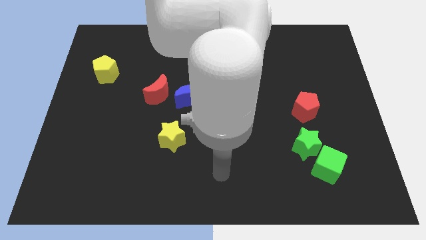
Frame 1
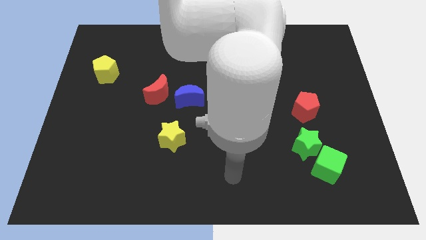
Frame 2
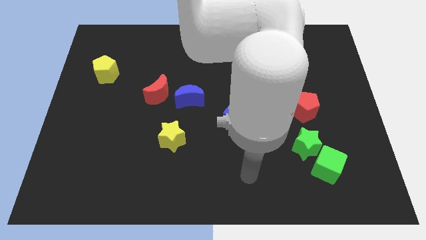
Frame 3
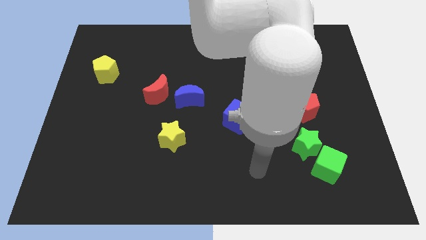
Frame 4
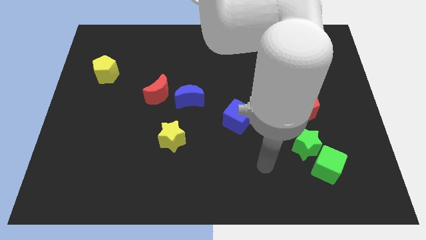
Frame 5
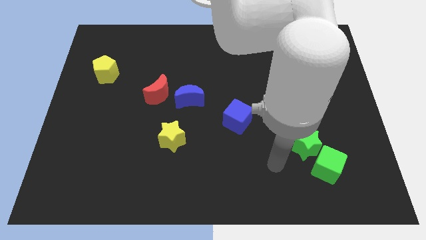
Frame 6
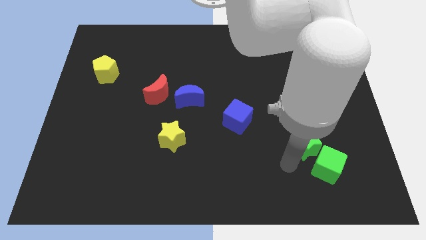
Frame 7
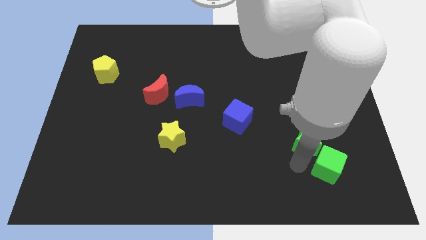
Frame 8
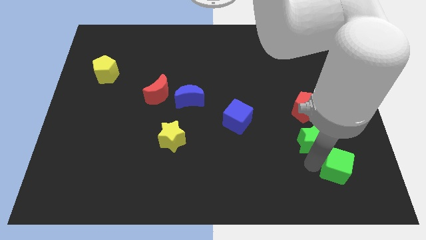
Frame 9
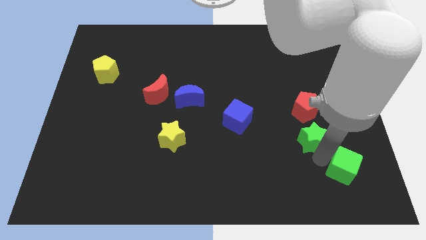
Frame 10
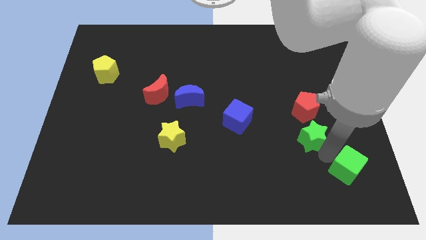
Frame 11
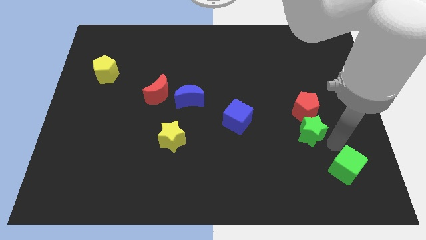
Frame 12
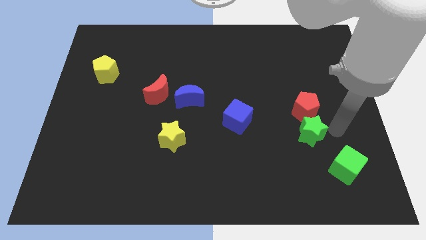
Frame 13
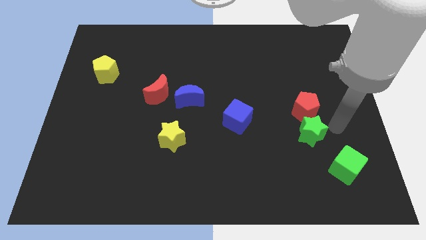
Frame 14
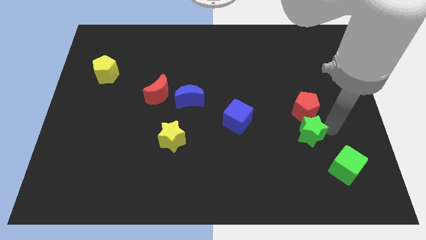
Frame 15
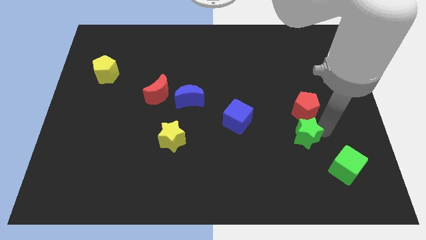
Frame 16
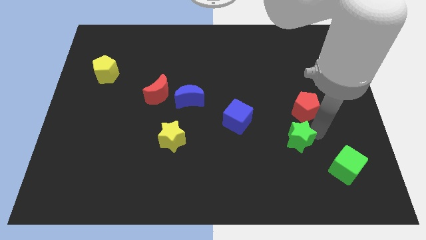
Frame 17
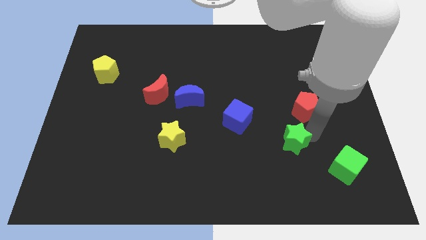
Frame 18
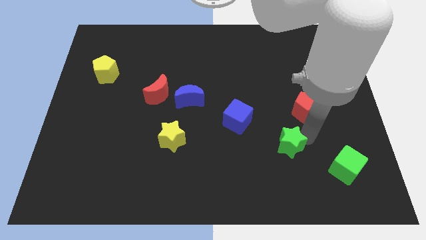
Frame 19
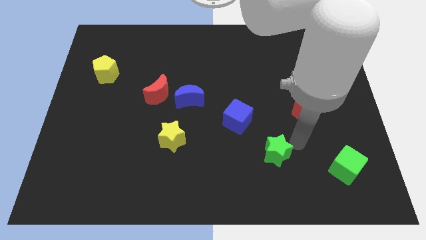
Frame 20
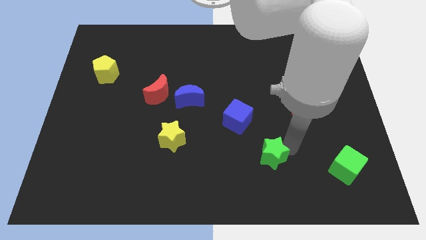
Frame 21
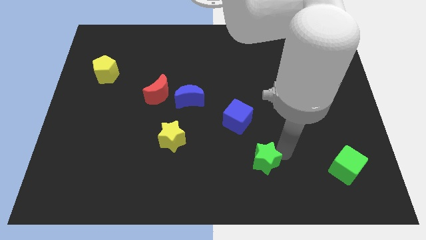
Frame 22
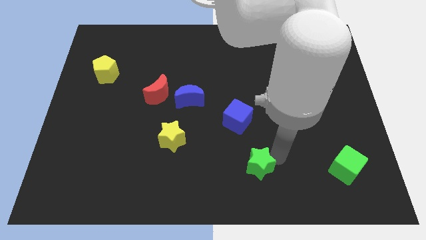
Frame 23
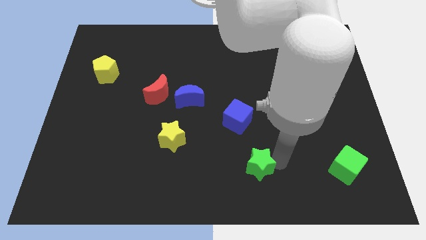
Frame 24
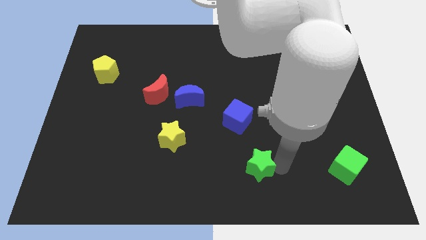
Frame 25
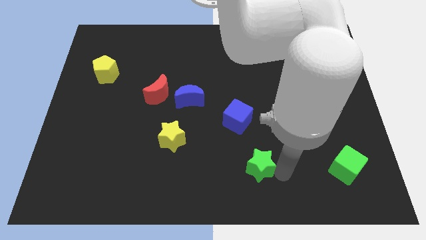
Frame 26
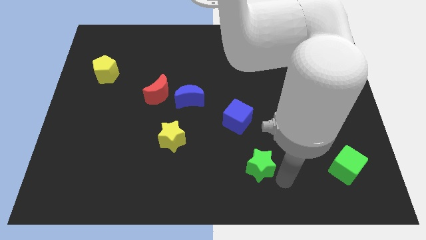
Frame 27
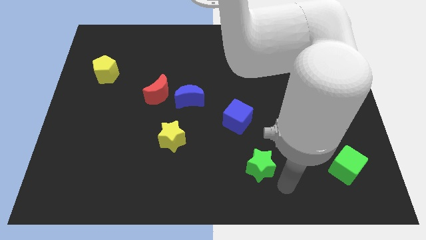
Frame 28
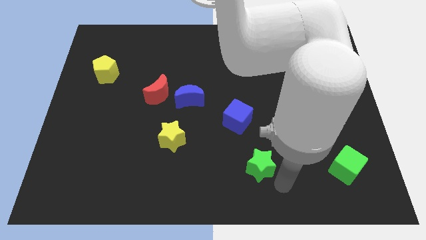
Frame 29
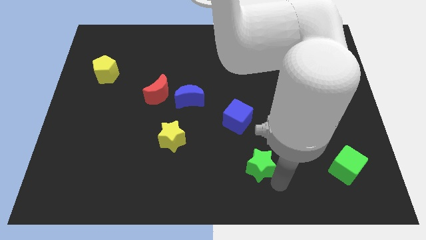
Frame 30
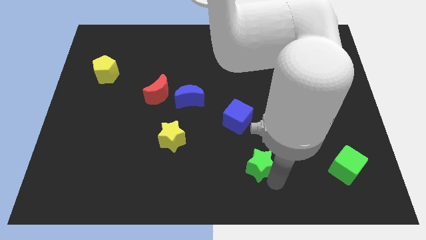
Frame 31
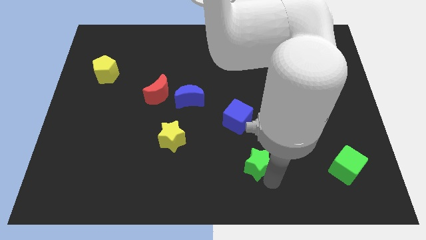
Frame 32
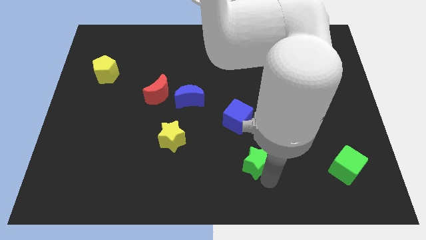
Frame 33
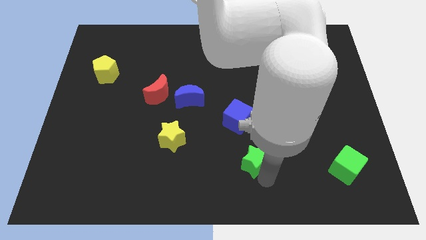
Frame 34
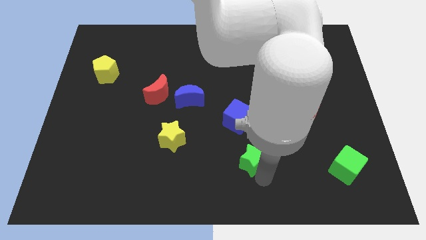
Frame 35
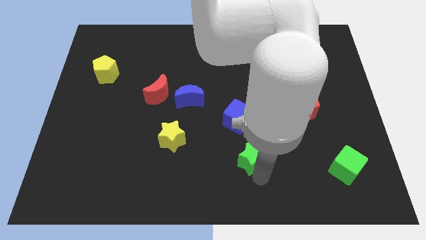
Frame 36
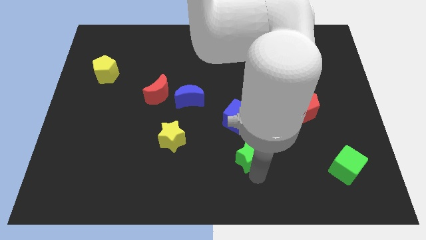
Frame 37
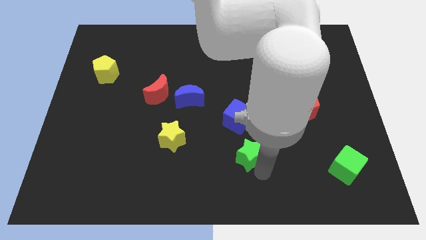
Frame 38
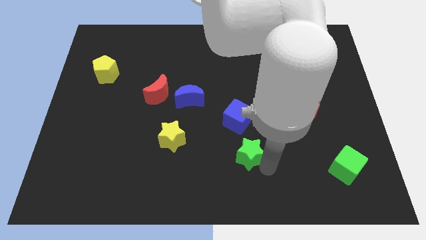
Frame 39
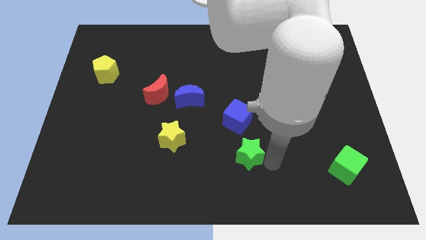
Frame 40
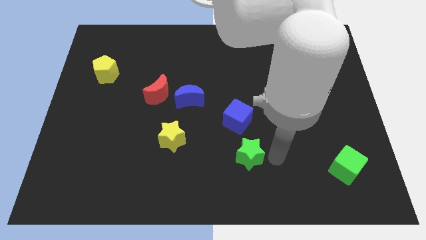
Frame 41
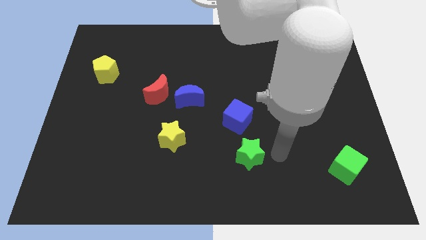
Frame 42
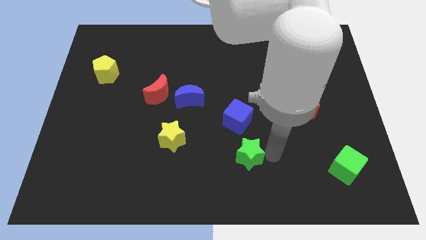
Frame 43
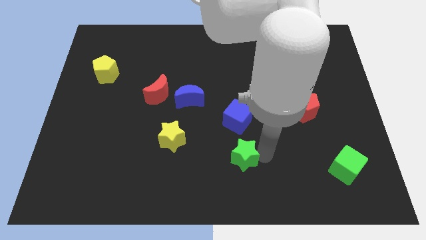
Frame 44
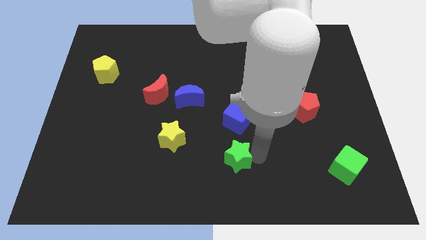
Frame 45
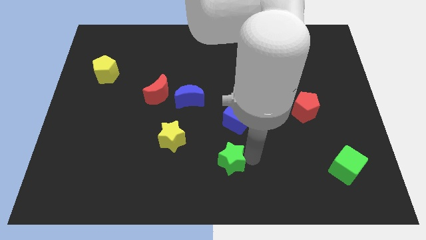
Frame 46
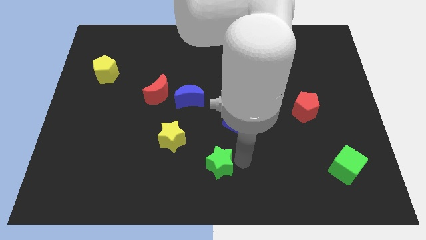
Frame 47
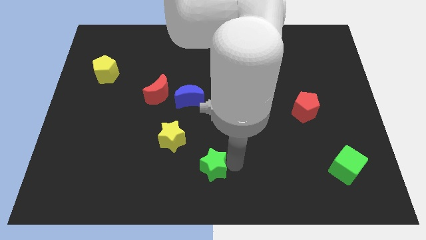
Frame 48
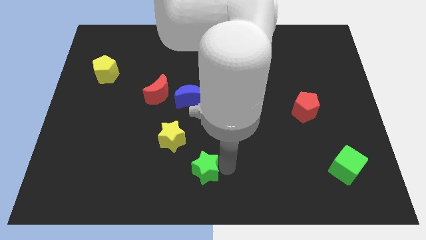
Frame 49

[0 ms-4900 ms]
move the green star left

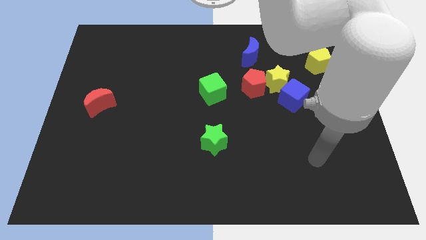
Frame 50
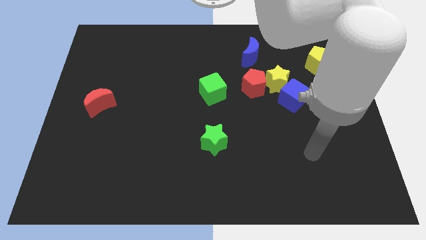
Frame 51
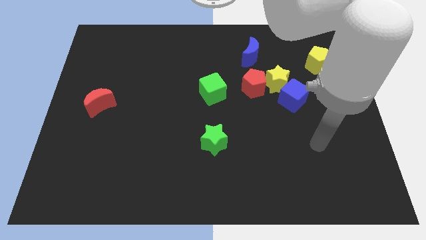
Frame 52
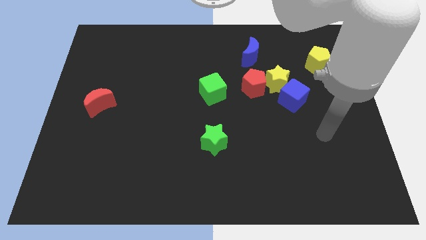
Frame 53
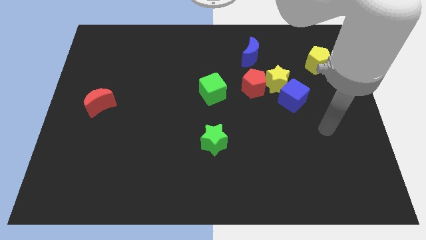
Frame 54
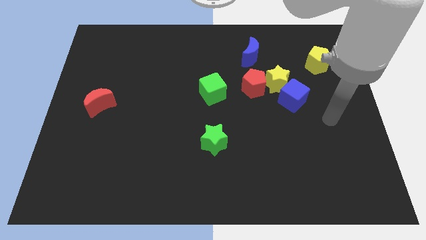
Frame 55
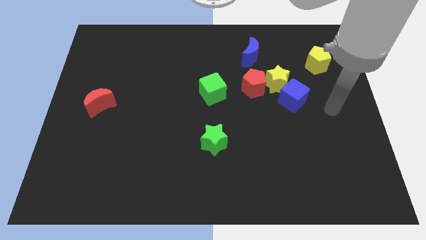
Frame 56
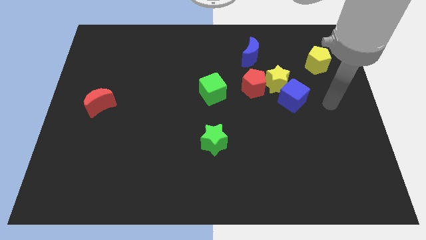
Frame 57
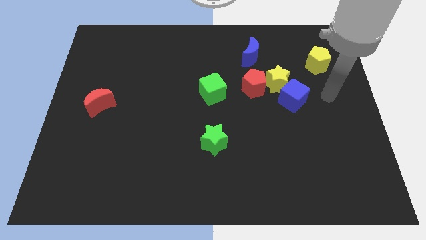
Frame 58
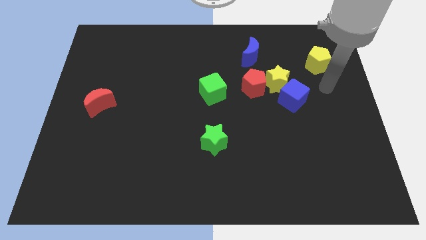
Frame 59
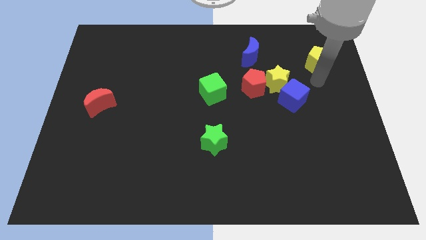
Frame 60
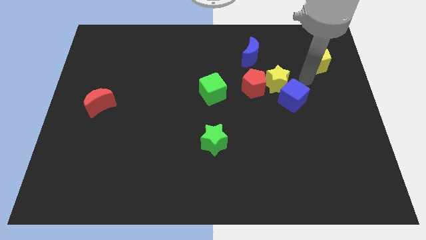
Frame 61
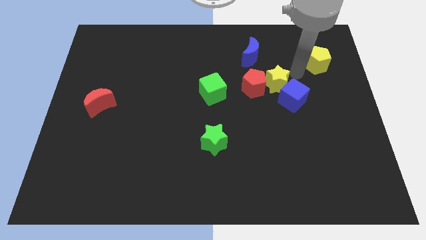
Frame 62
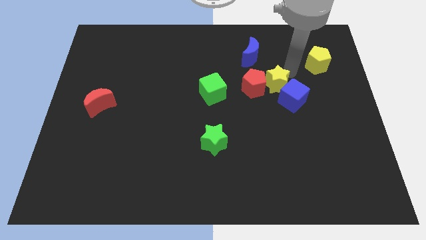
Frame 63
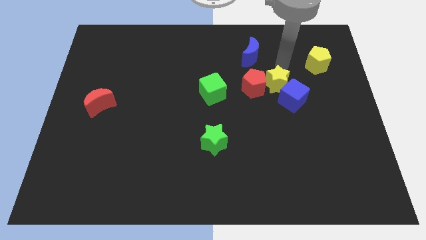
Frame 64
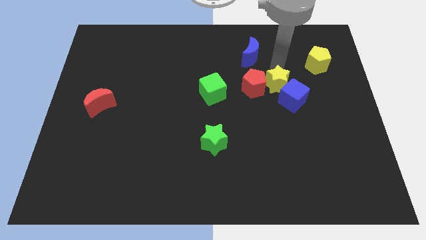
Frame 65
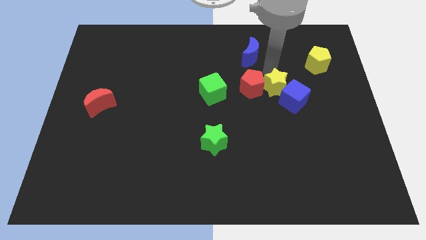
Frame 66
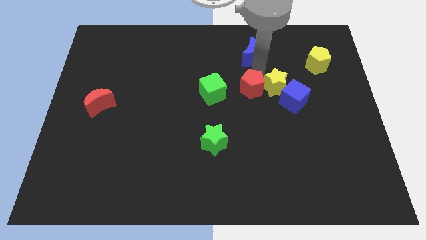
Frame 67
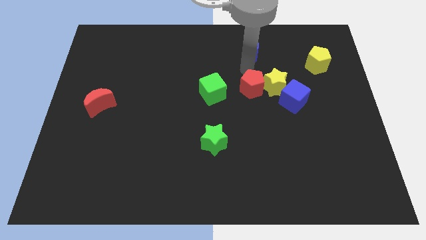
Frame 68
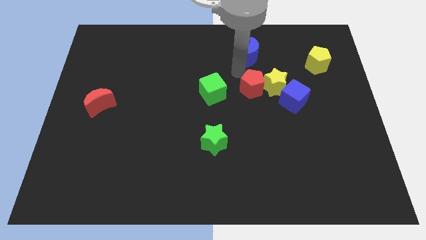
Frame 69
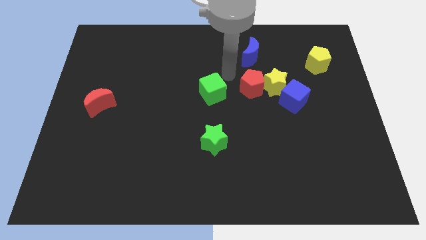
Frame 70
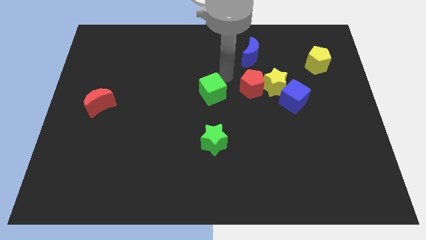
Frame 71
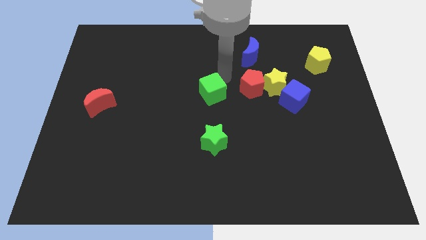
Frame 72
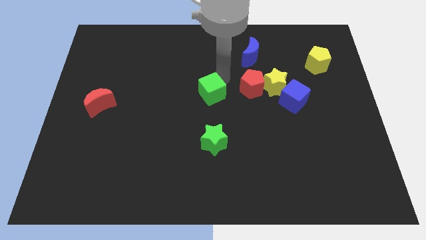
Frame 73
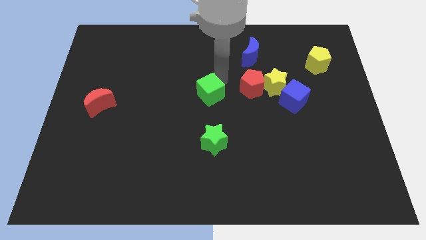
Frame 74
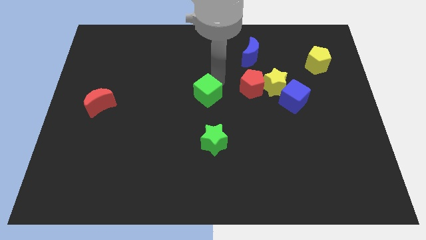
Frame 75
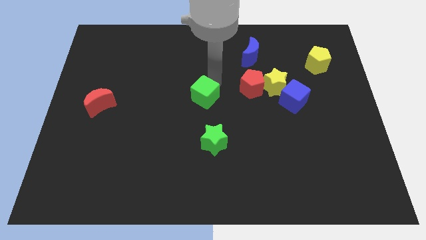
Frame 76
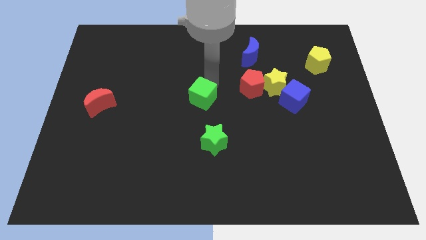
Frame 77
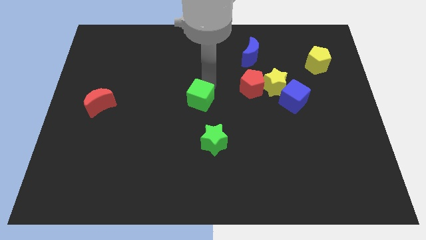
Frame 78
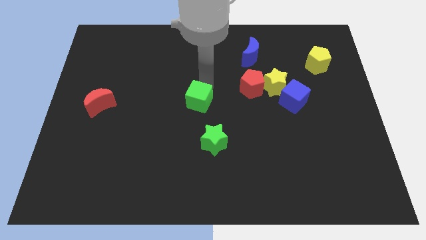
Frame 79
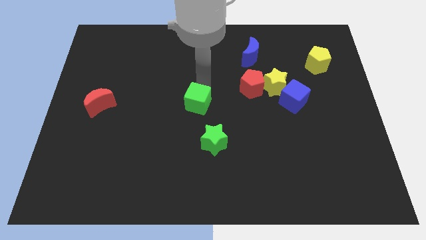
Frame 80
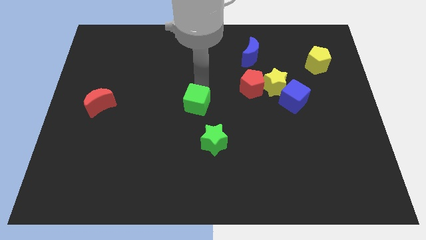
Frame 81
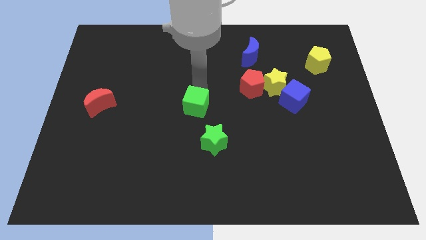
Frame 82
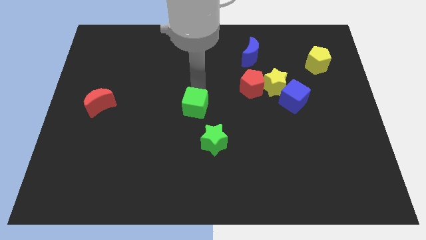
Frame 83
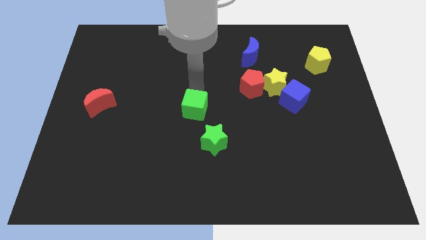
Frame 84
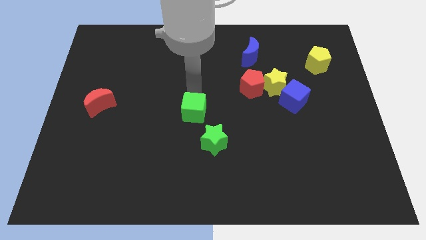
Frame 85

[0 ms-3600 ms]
slightly move the green cube diagonally down and to the left
